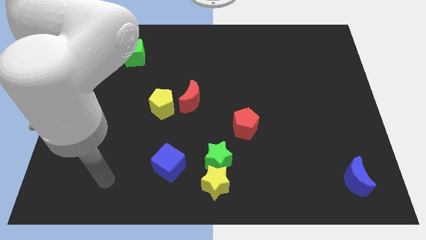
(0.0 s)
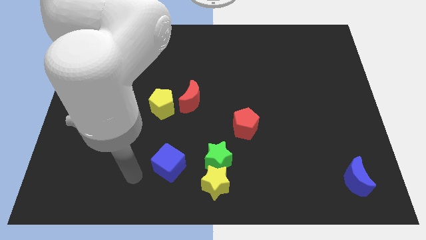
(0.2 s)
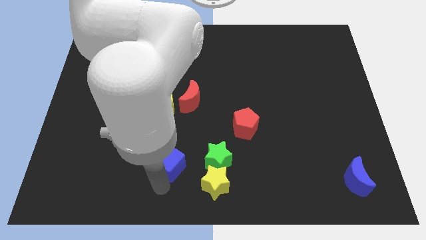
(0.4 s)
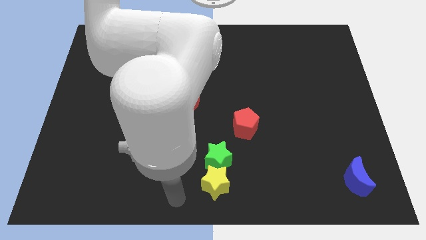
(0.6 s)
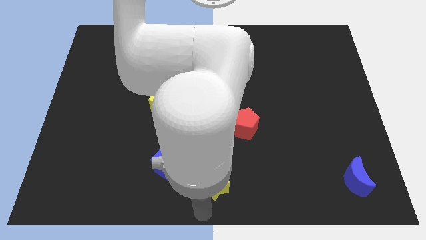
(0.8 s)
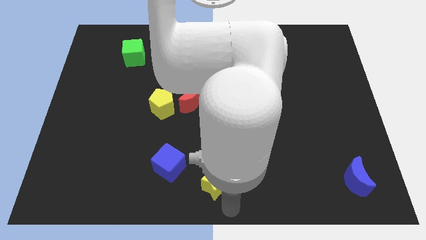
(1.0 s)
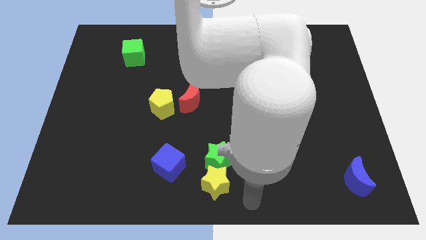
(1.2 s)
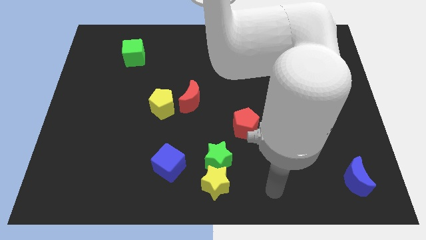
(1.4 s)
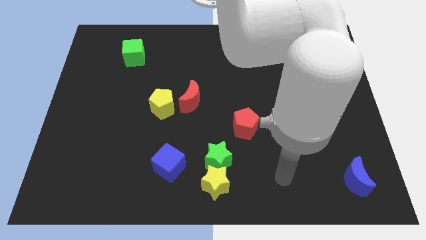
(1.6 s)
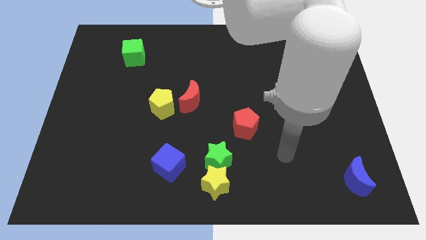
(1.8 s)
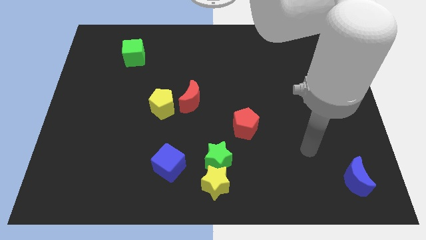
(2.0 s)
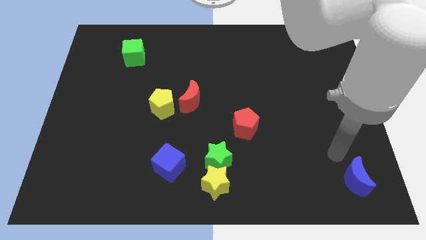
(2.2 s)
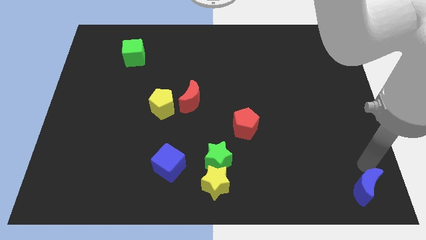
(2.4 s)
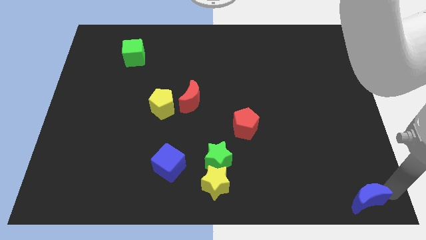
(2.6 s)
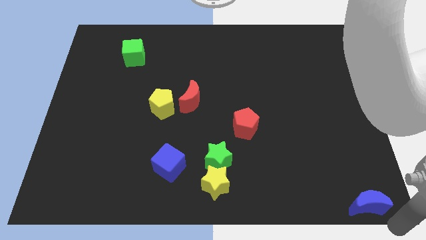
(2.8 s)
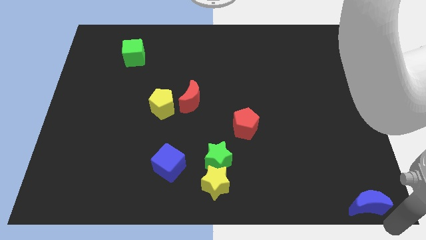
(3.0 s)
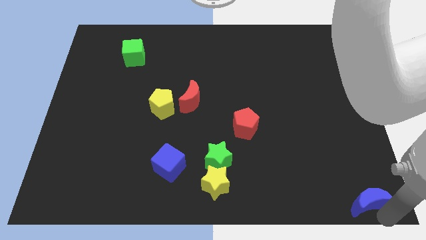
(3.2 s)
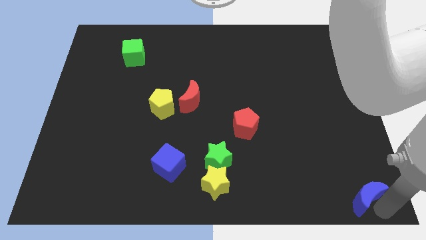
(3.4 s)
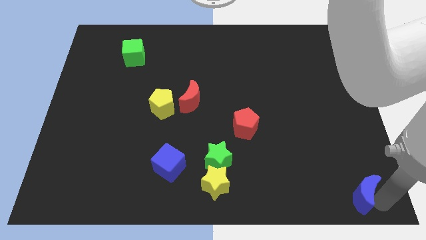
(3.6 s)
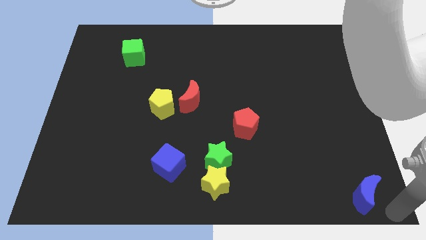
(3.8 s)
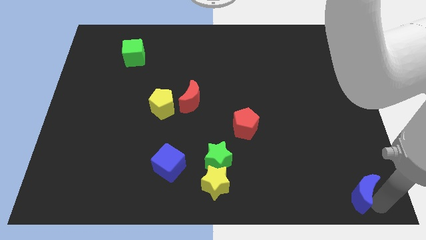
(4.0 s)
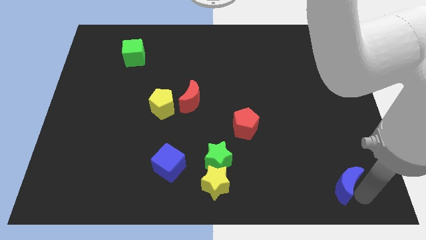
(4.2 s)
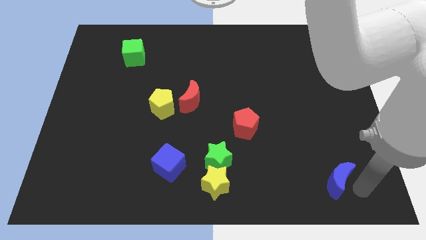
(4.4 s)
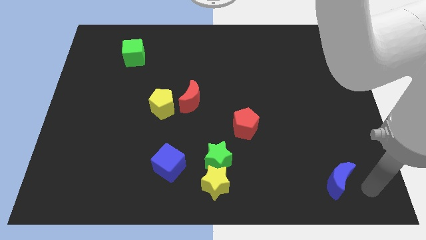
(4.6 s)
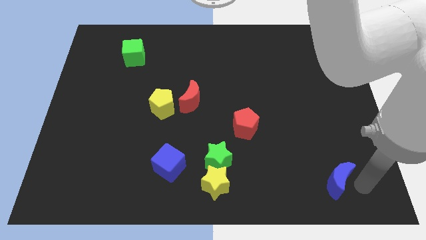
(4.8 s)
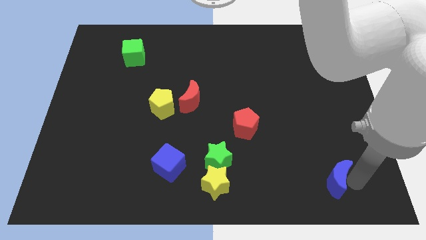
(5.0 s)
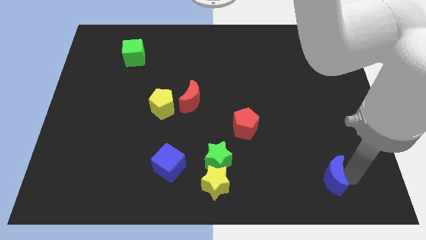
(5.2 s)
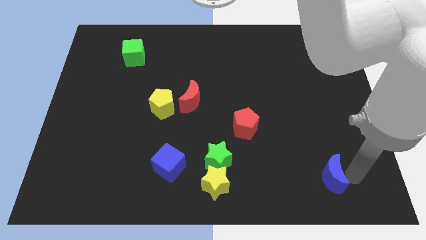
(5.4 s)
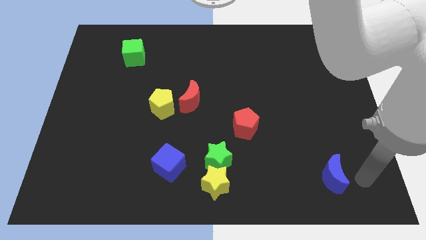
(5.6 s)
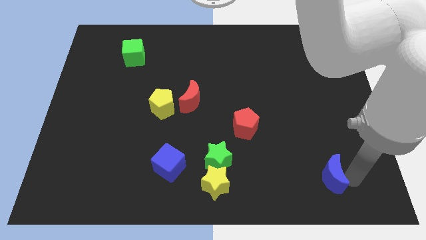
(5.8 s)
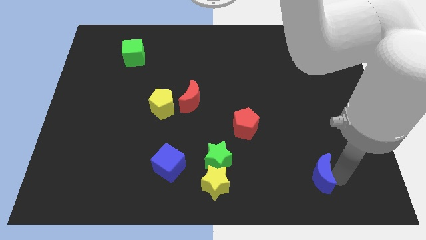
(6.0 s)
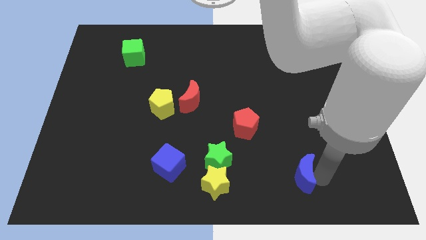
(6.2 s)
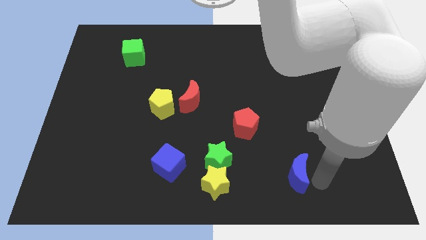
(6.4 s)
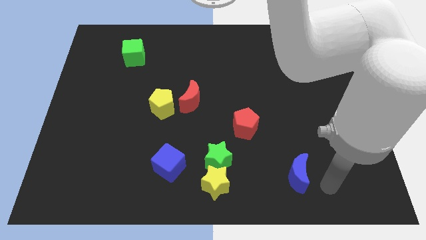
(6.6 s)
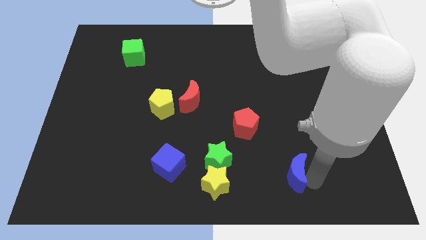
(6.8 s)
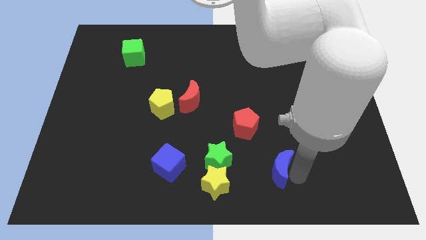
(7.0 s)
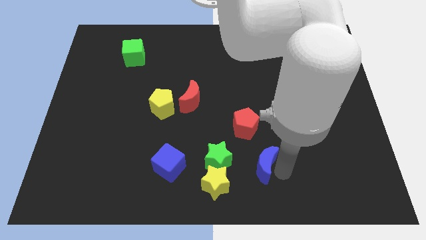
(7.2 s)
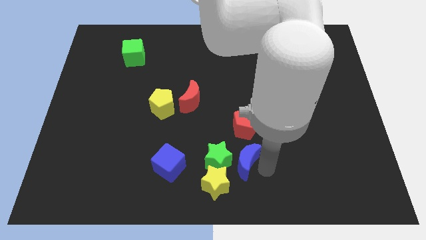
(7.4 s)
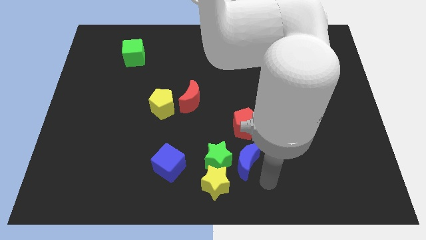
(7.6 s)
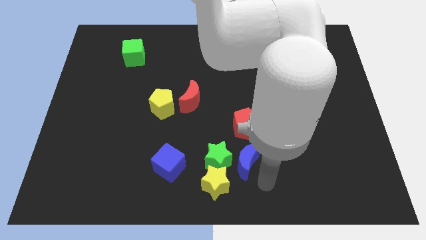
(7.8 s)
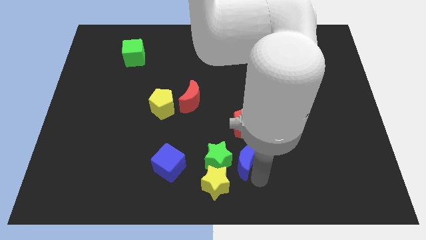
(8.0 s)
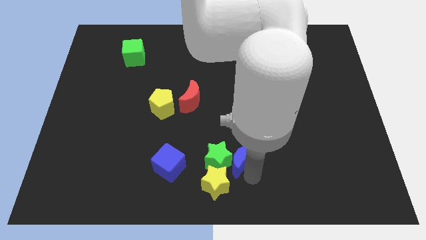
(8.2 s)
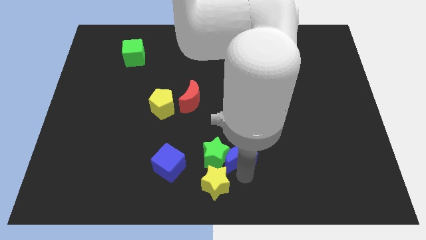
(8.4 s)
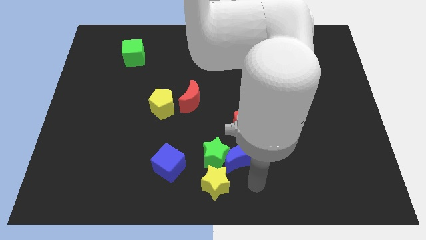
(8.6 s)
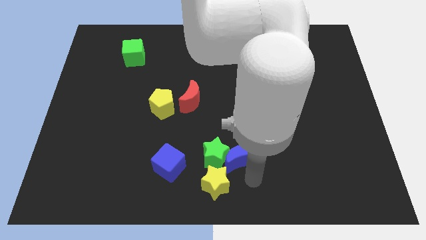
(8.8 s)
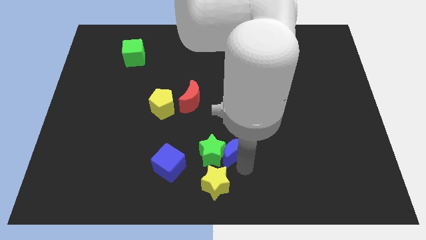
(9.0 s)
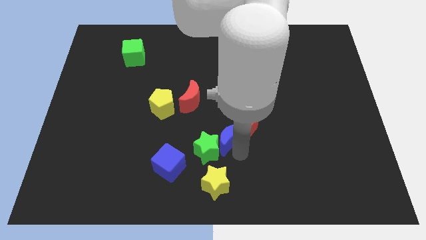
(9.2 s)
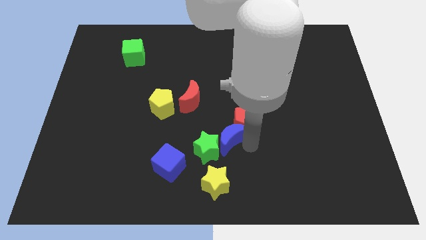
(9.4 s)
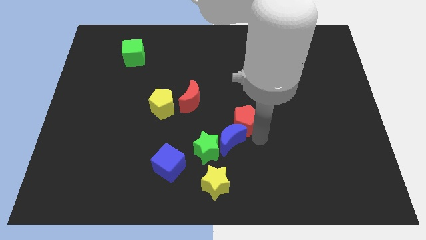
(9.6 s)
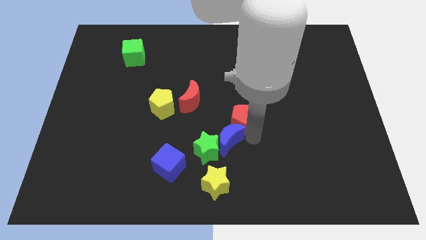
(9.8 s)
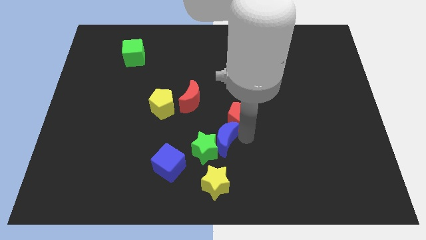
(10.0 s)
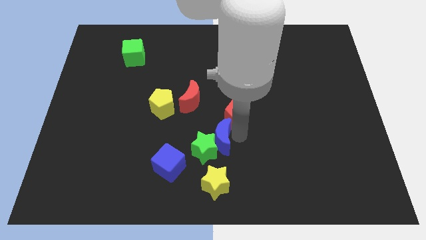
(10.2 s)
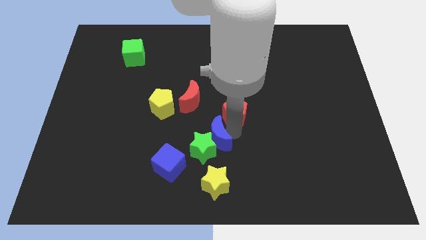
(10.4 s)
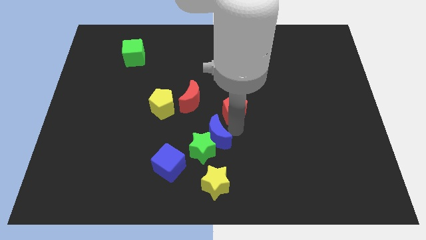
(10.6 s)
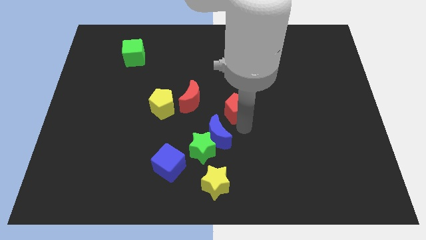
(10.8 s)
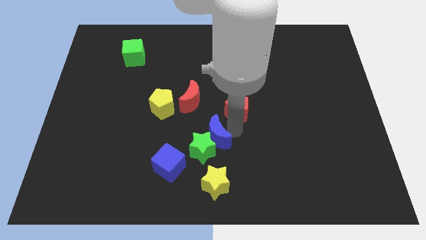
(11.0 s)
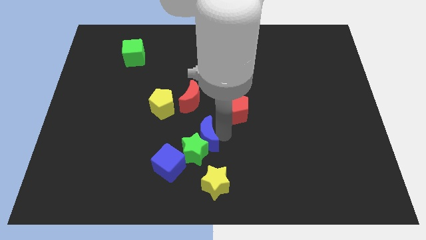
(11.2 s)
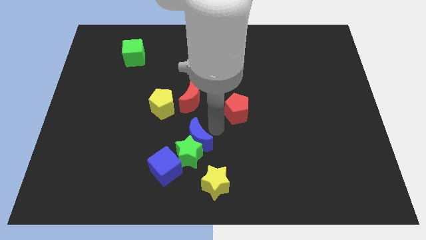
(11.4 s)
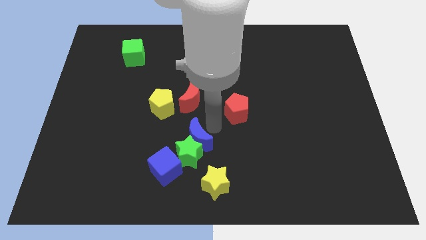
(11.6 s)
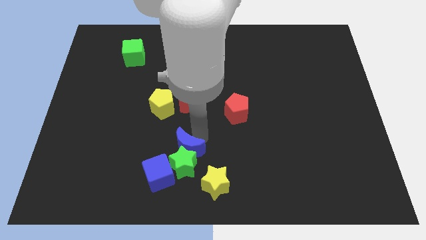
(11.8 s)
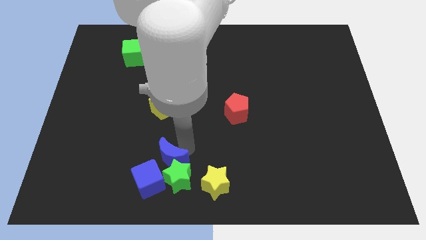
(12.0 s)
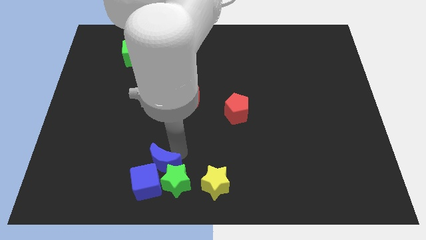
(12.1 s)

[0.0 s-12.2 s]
slide the blue moon next to the blue cube
